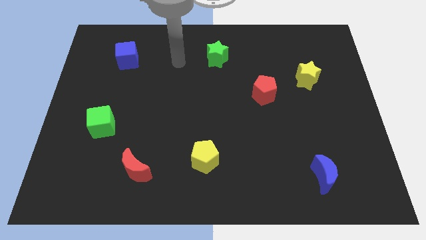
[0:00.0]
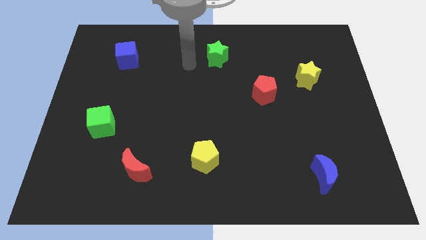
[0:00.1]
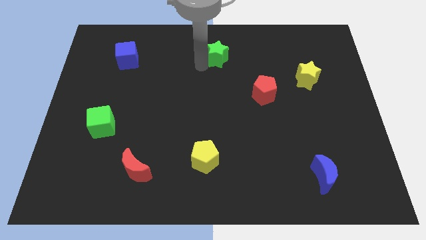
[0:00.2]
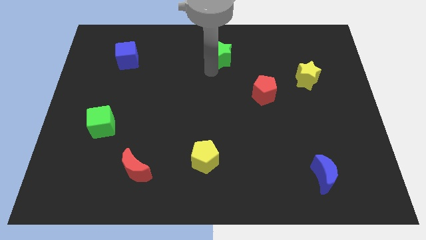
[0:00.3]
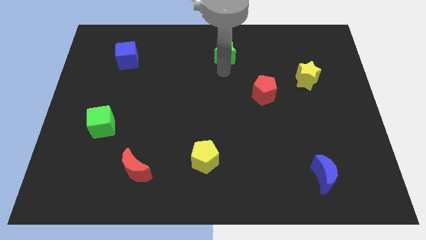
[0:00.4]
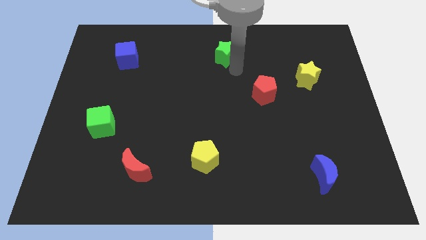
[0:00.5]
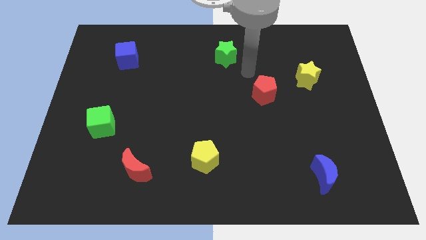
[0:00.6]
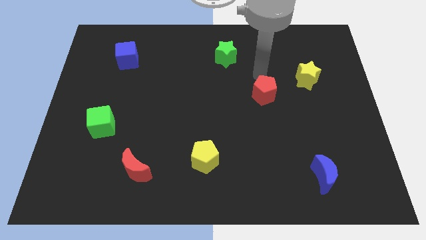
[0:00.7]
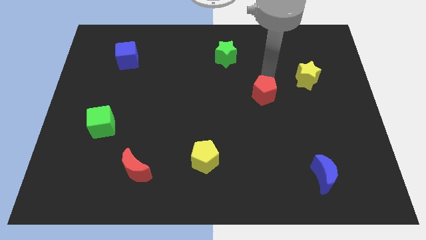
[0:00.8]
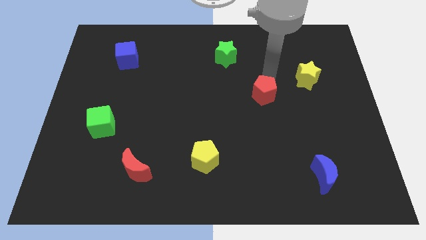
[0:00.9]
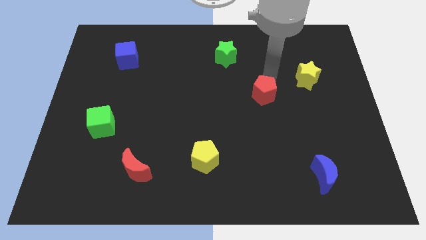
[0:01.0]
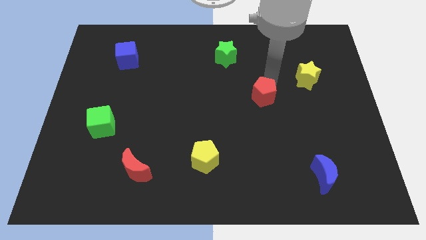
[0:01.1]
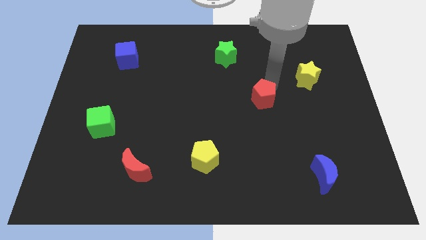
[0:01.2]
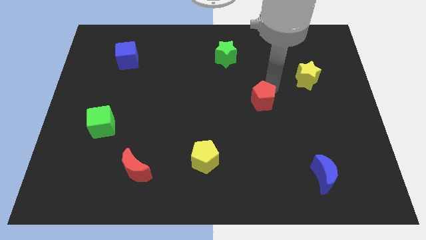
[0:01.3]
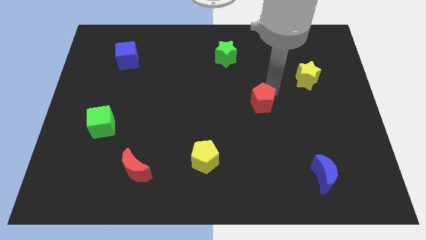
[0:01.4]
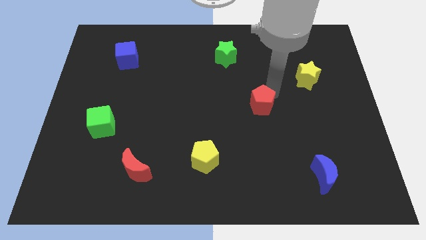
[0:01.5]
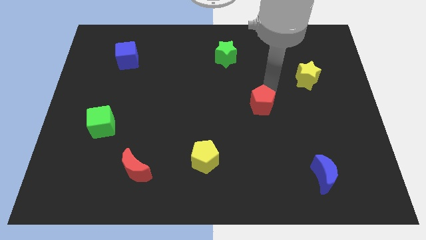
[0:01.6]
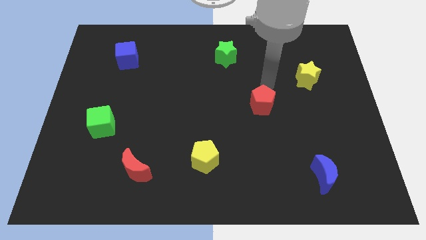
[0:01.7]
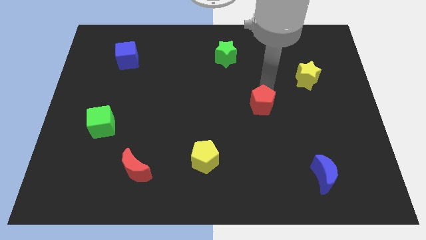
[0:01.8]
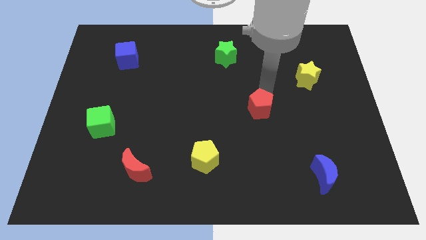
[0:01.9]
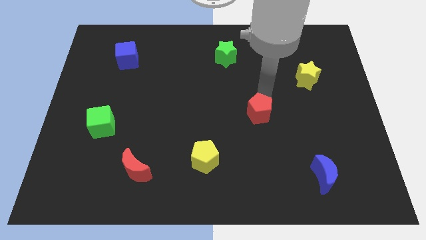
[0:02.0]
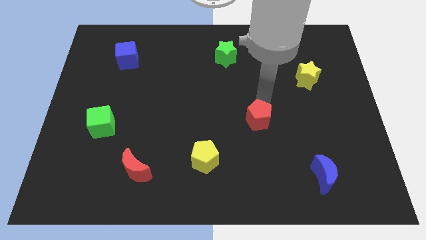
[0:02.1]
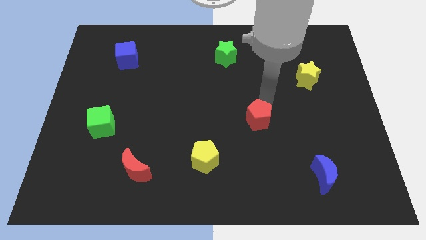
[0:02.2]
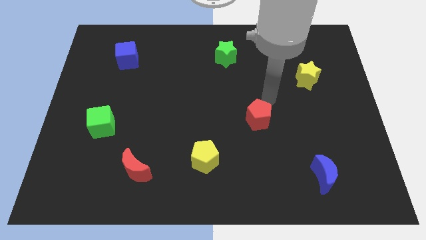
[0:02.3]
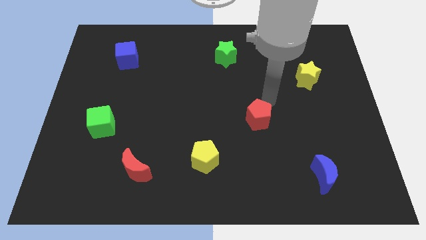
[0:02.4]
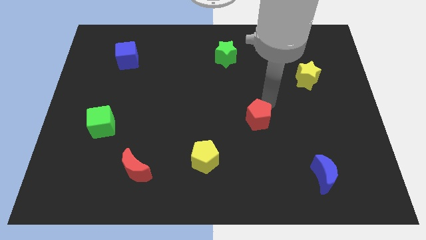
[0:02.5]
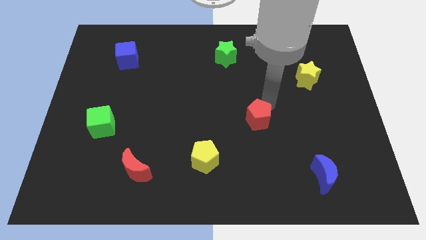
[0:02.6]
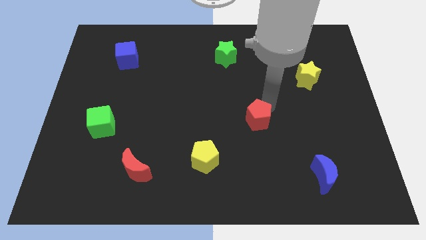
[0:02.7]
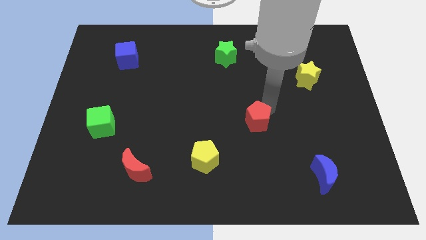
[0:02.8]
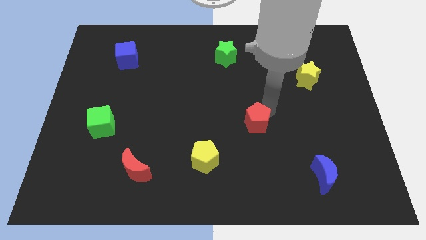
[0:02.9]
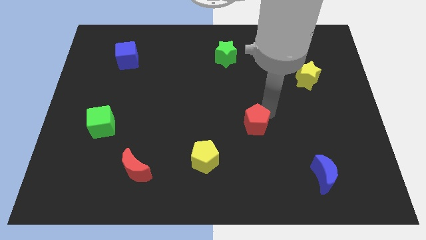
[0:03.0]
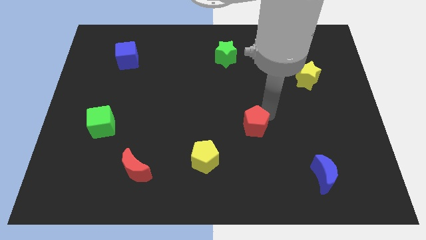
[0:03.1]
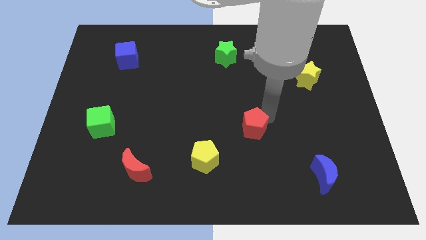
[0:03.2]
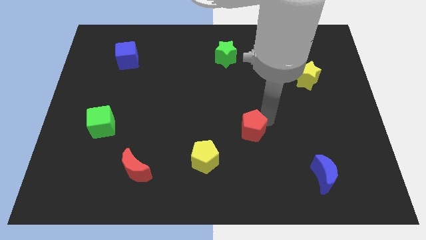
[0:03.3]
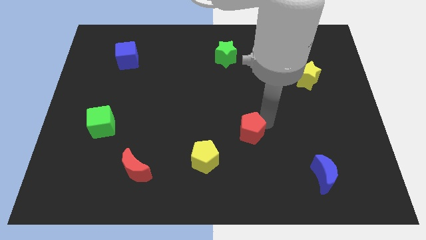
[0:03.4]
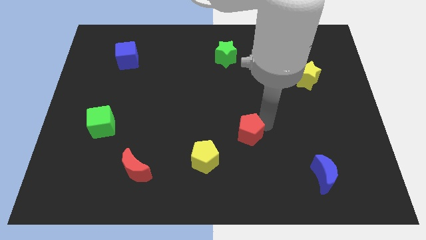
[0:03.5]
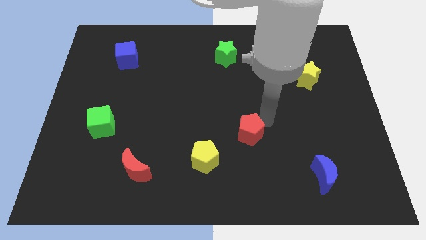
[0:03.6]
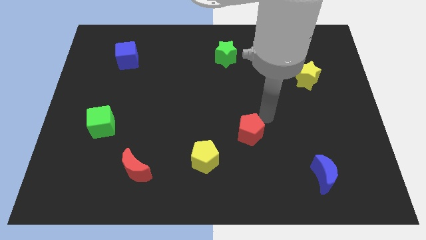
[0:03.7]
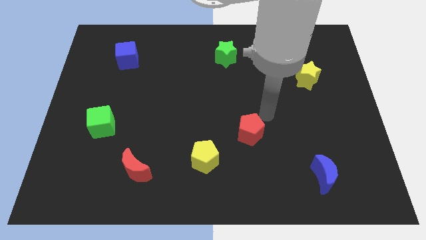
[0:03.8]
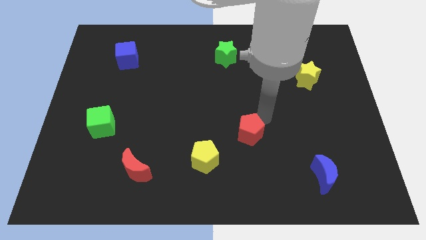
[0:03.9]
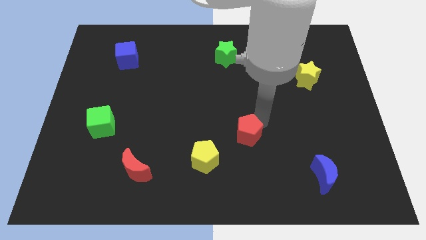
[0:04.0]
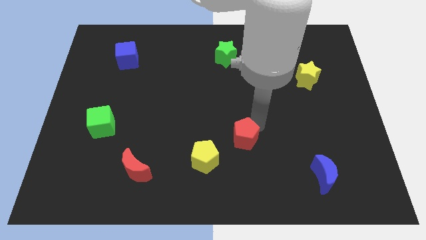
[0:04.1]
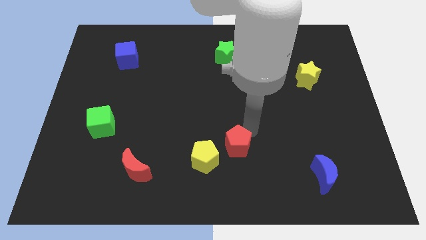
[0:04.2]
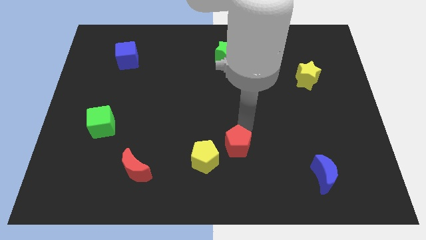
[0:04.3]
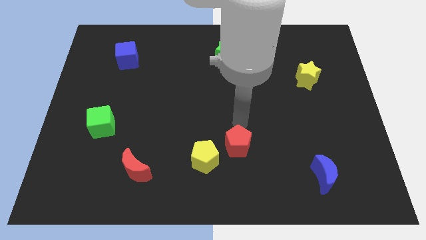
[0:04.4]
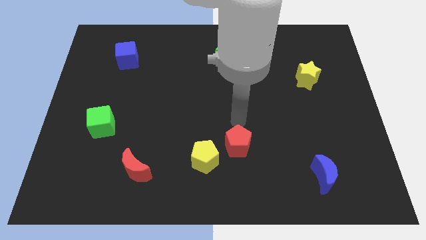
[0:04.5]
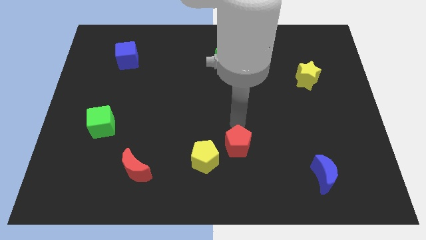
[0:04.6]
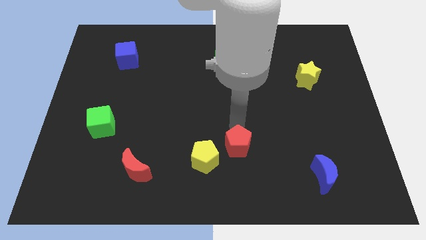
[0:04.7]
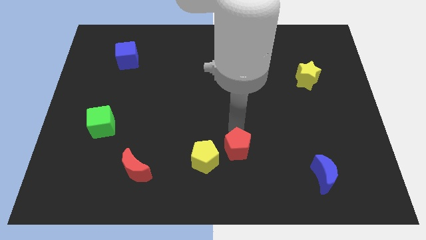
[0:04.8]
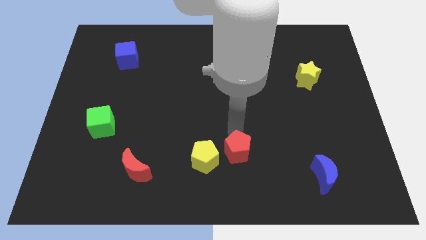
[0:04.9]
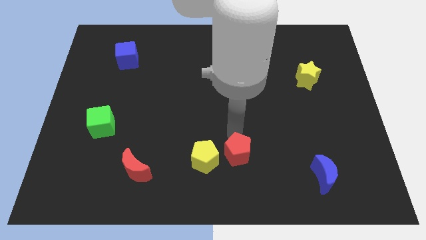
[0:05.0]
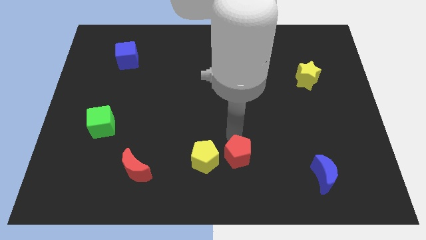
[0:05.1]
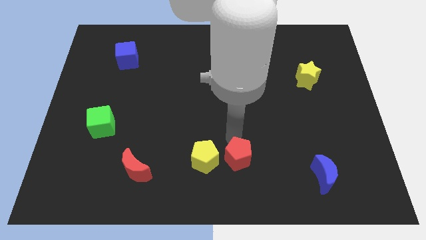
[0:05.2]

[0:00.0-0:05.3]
move the red pentagon to the bottom
